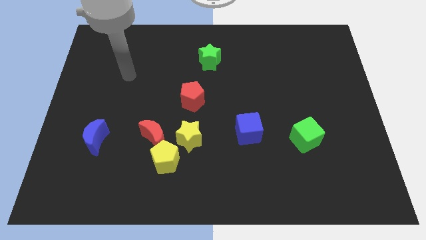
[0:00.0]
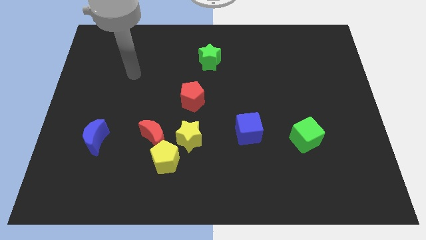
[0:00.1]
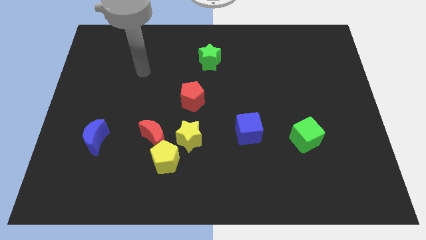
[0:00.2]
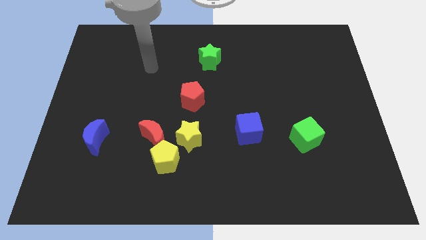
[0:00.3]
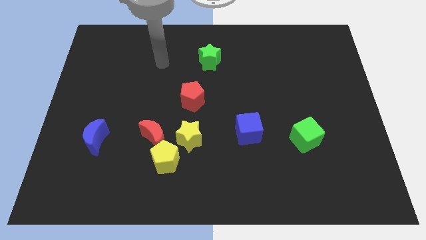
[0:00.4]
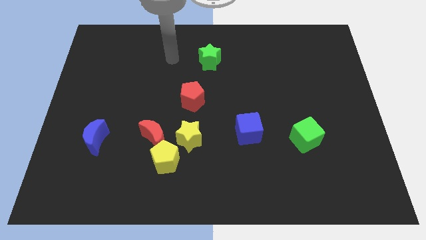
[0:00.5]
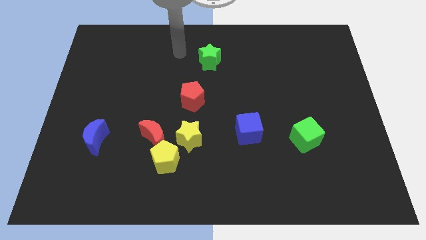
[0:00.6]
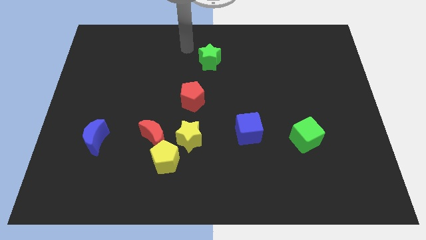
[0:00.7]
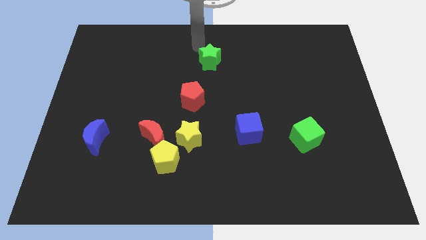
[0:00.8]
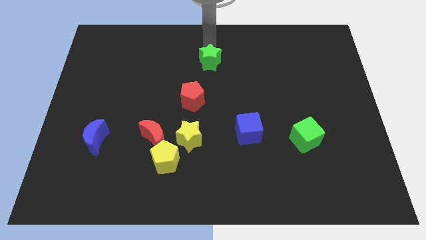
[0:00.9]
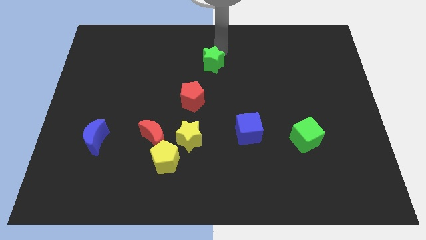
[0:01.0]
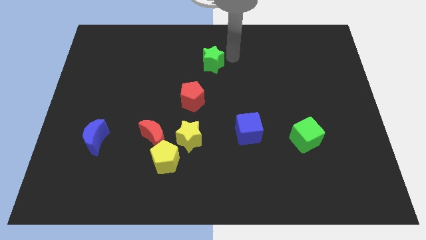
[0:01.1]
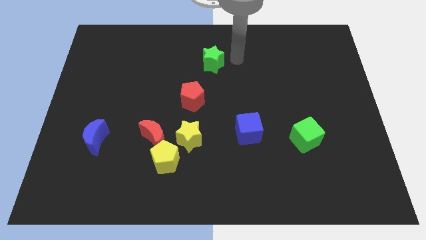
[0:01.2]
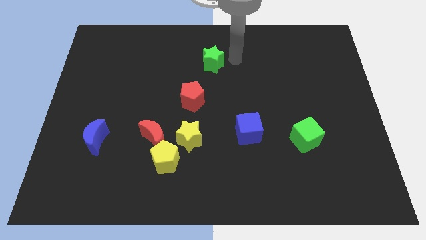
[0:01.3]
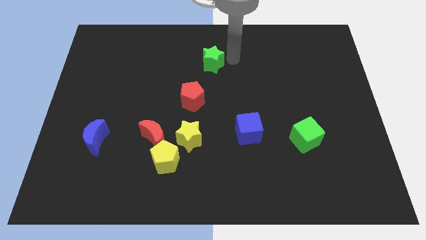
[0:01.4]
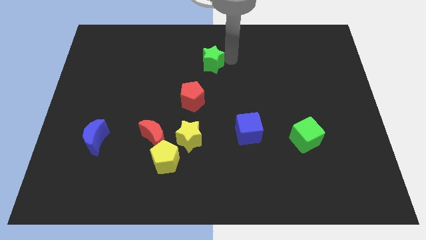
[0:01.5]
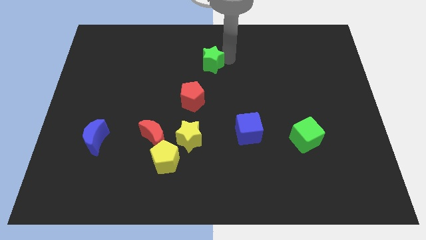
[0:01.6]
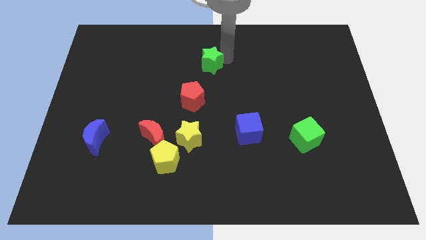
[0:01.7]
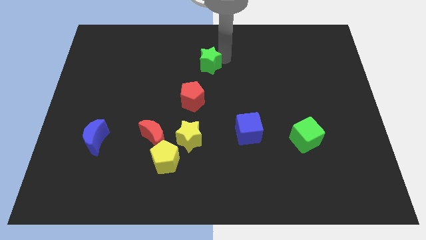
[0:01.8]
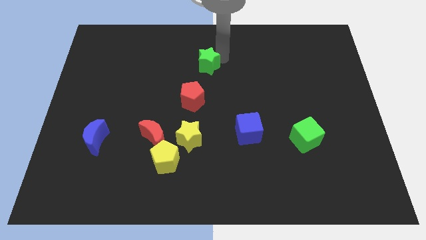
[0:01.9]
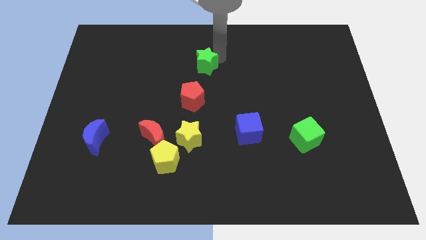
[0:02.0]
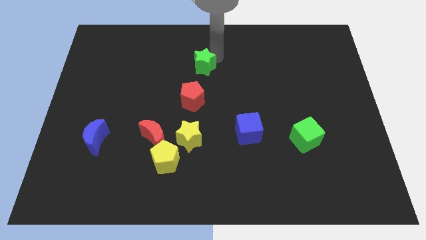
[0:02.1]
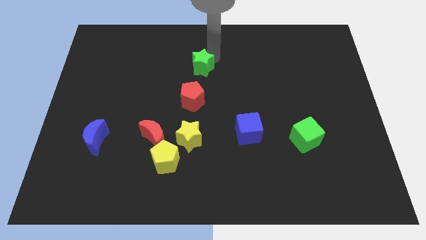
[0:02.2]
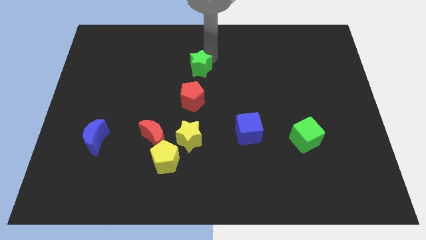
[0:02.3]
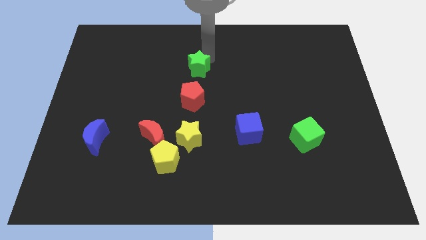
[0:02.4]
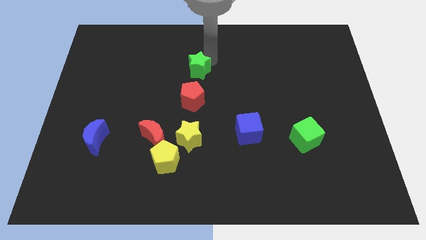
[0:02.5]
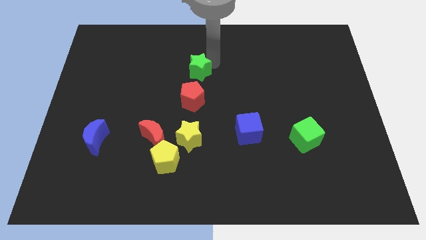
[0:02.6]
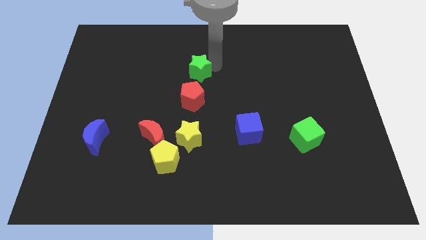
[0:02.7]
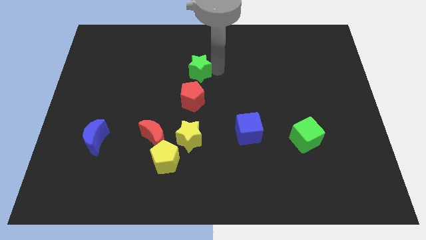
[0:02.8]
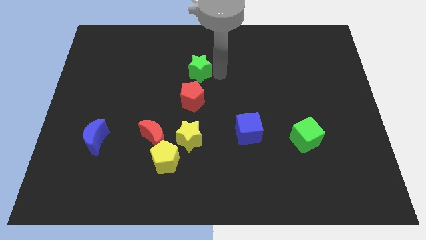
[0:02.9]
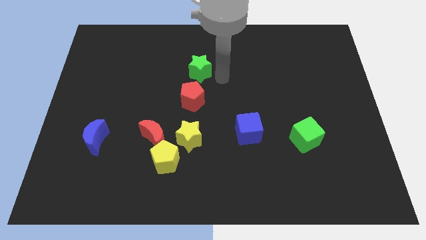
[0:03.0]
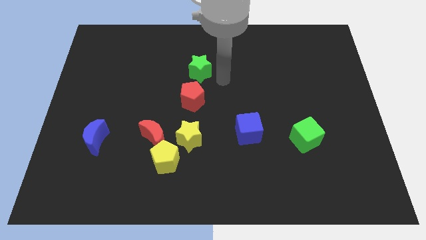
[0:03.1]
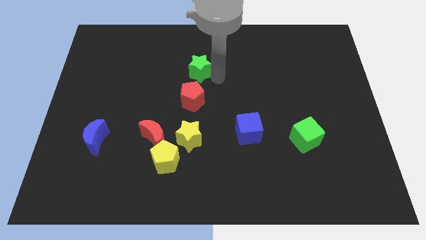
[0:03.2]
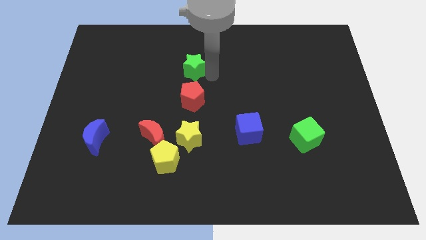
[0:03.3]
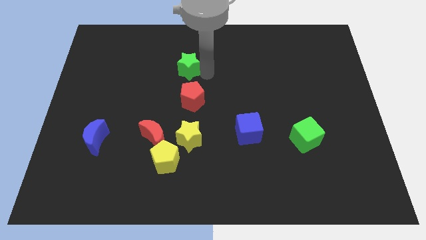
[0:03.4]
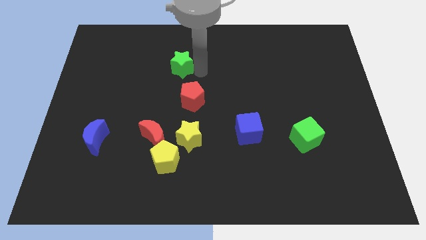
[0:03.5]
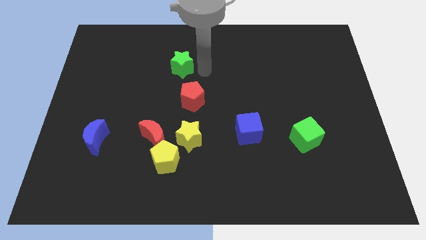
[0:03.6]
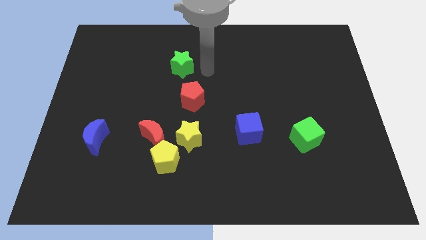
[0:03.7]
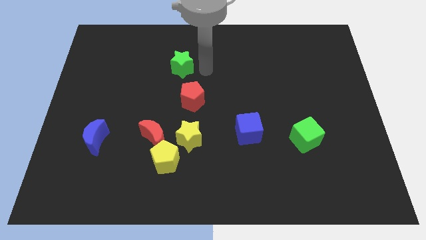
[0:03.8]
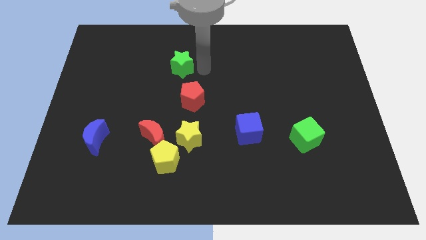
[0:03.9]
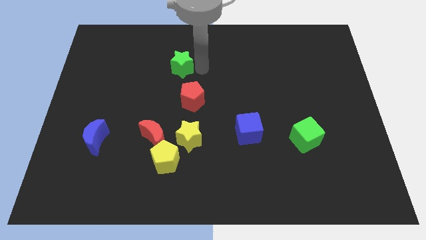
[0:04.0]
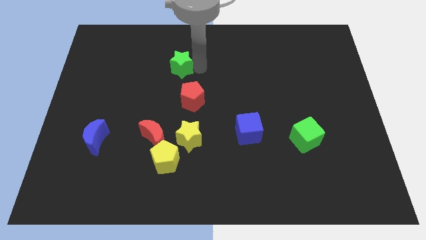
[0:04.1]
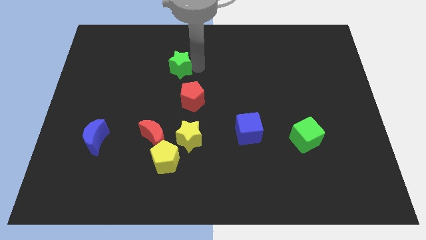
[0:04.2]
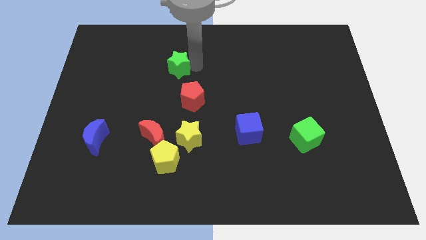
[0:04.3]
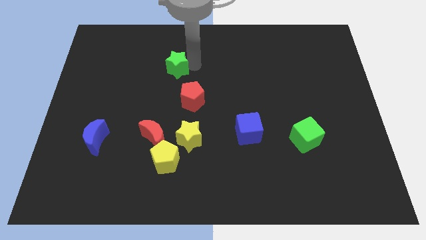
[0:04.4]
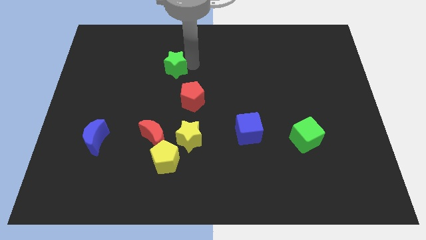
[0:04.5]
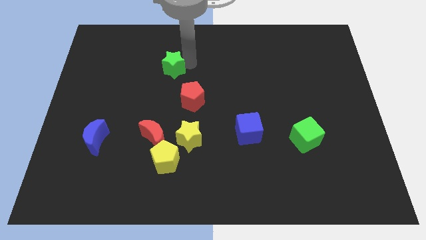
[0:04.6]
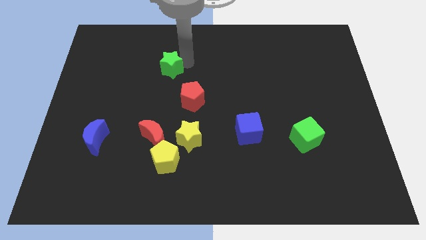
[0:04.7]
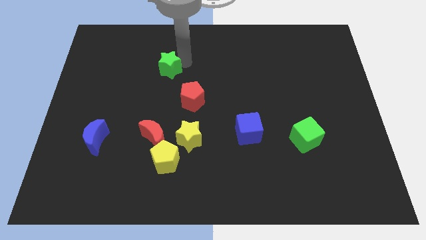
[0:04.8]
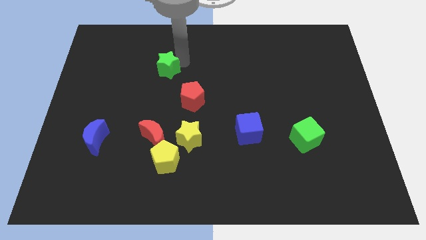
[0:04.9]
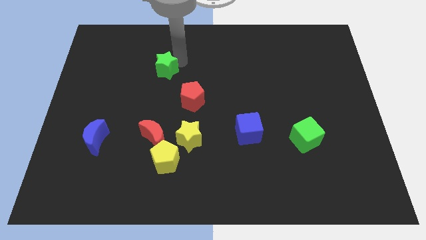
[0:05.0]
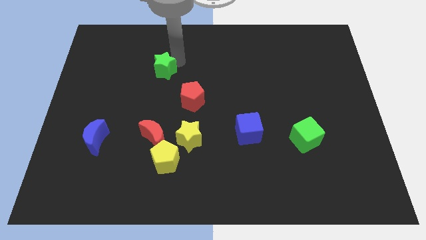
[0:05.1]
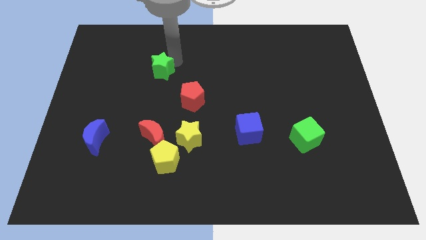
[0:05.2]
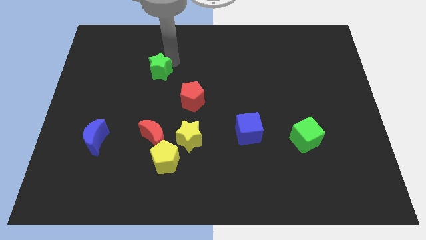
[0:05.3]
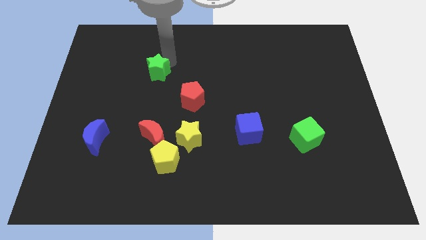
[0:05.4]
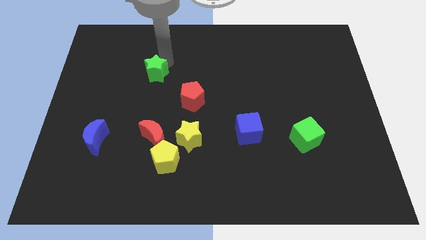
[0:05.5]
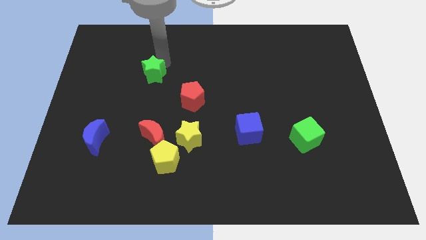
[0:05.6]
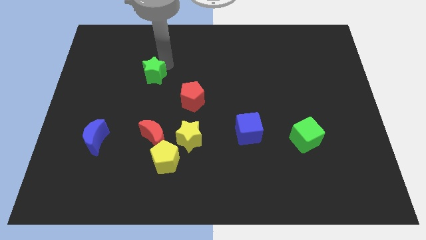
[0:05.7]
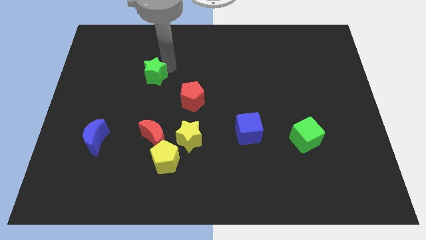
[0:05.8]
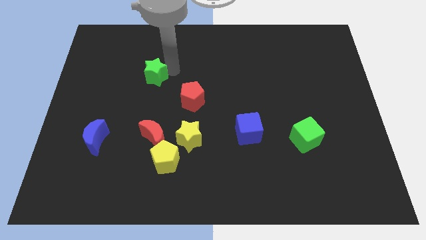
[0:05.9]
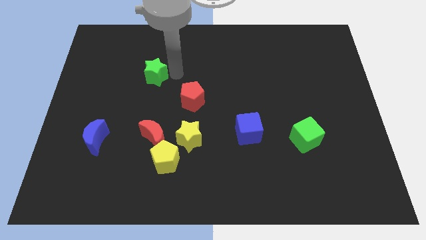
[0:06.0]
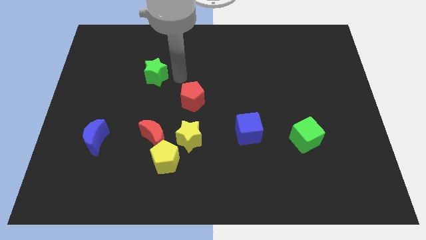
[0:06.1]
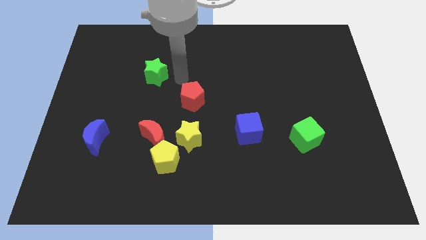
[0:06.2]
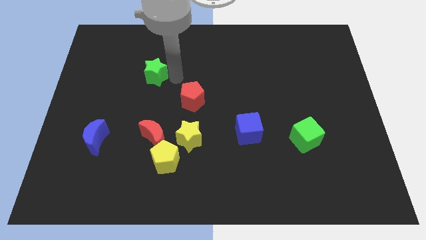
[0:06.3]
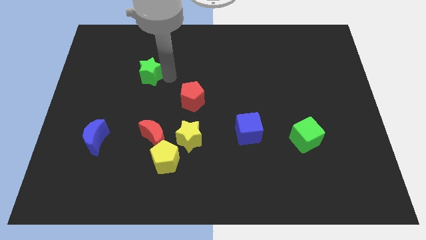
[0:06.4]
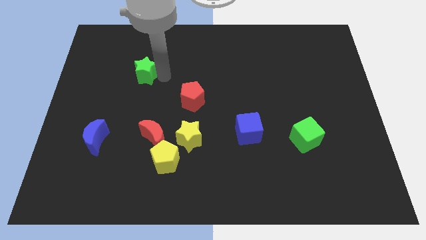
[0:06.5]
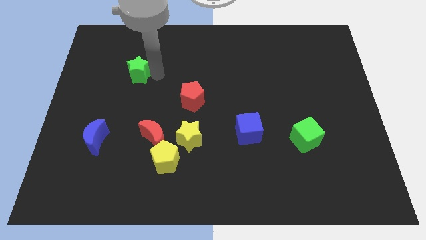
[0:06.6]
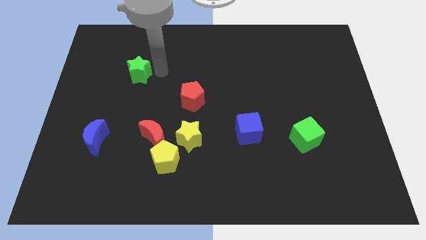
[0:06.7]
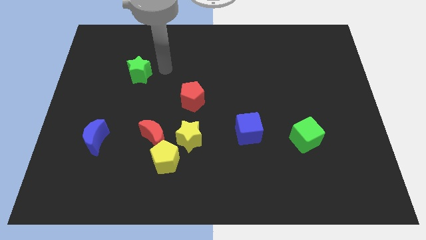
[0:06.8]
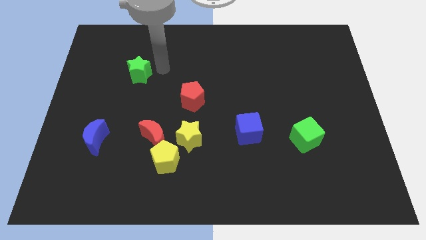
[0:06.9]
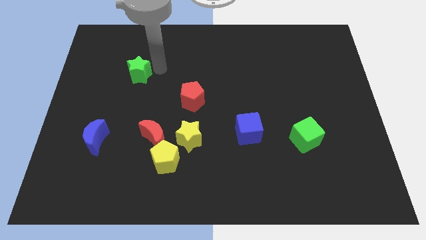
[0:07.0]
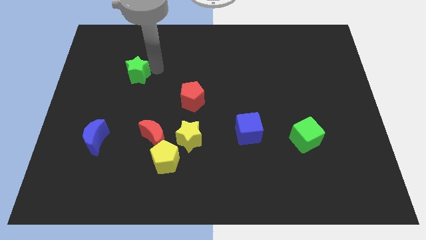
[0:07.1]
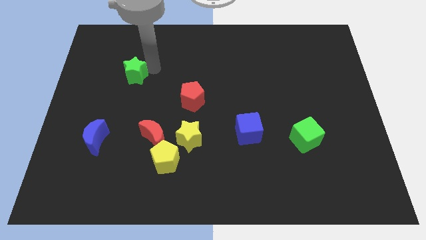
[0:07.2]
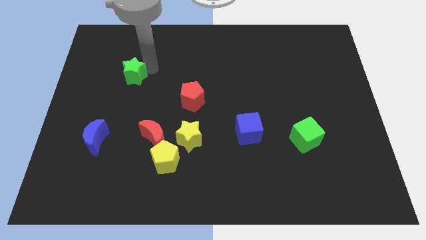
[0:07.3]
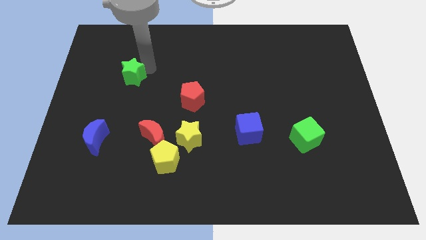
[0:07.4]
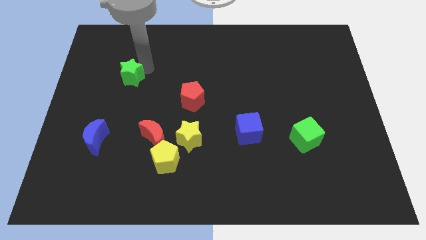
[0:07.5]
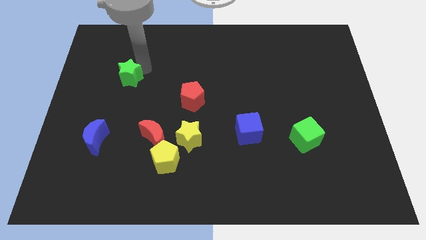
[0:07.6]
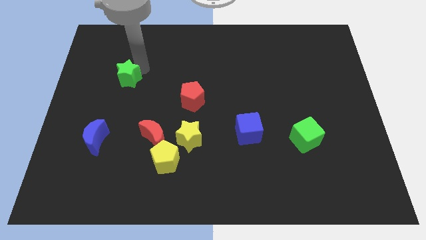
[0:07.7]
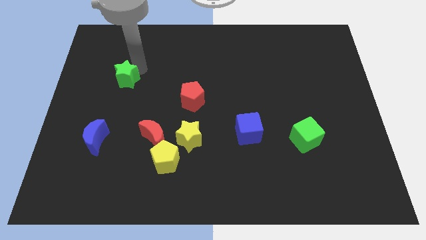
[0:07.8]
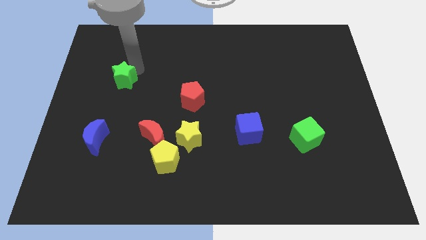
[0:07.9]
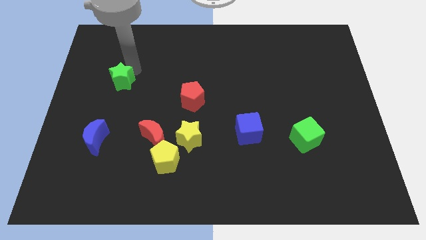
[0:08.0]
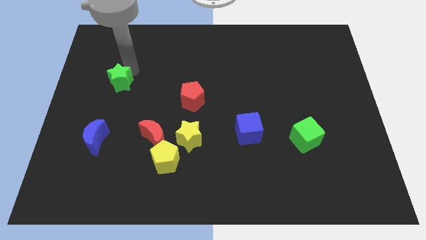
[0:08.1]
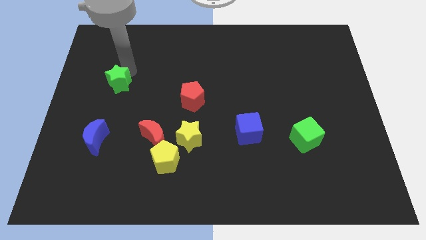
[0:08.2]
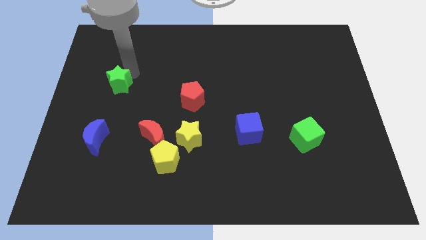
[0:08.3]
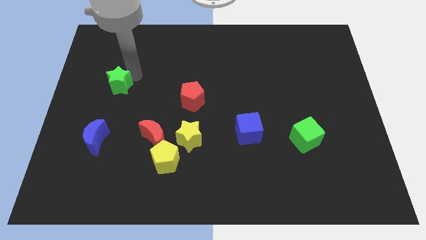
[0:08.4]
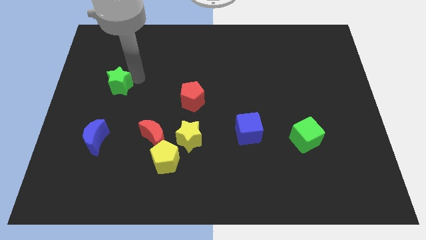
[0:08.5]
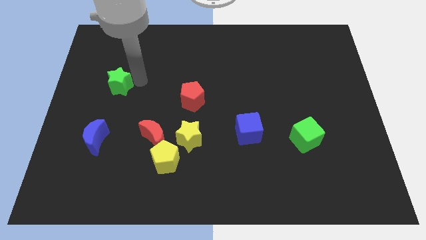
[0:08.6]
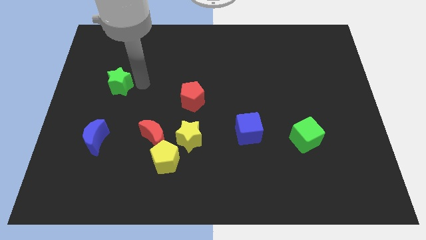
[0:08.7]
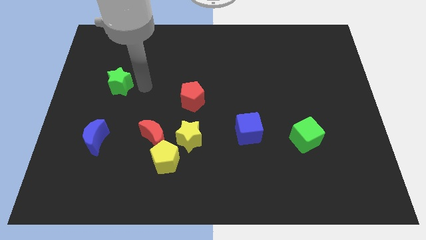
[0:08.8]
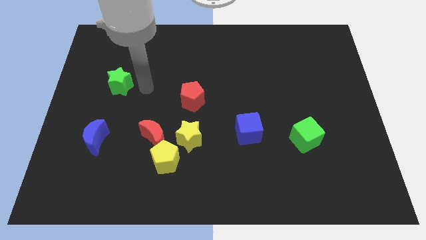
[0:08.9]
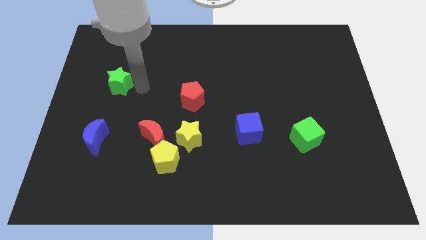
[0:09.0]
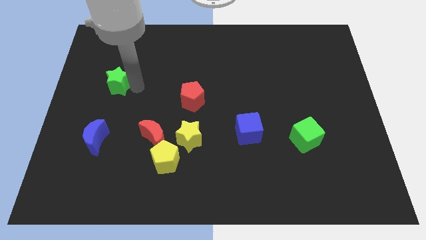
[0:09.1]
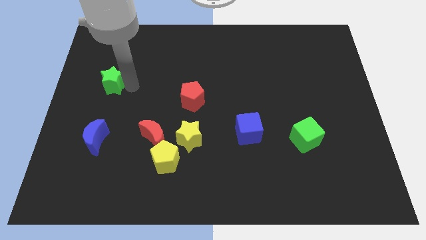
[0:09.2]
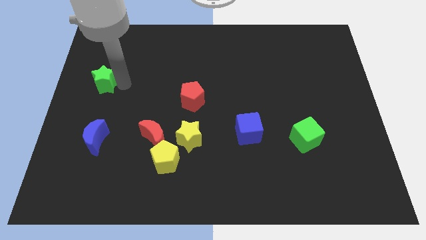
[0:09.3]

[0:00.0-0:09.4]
push the green star to the left side
